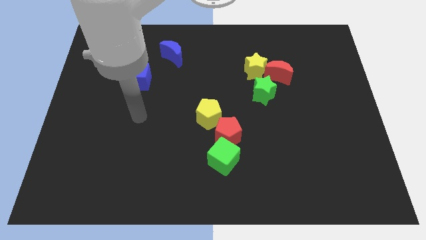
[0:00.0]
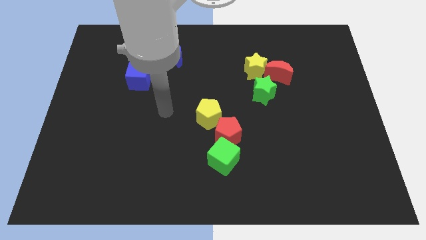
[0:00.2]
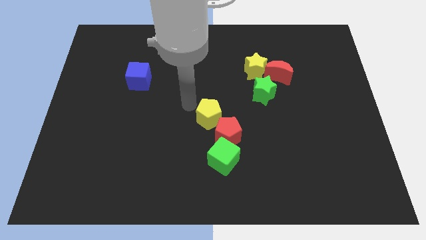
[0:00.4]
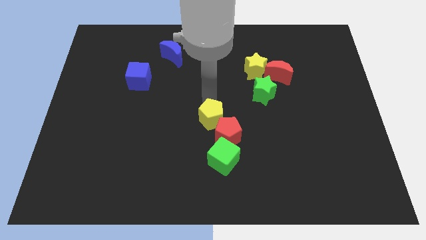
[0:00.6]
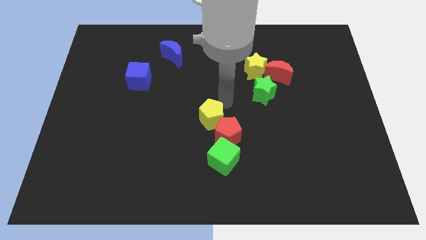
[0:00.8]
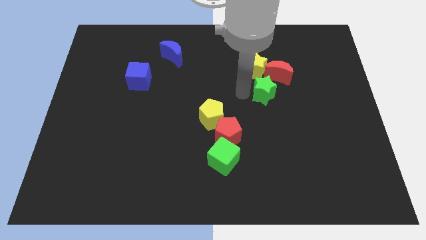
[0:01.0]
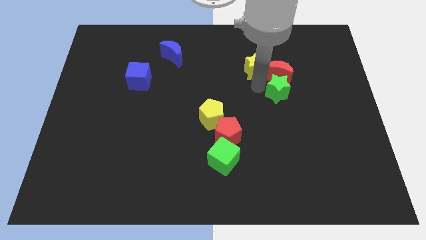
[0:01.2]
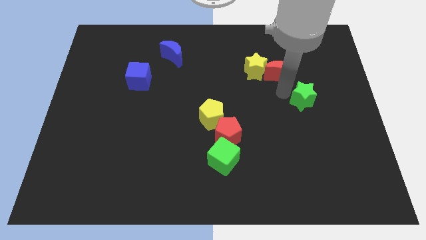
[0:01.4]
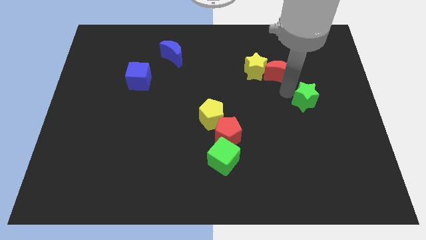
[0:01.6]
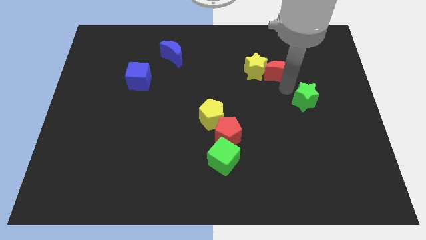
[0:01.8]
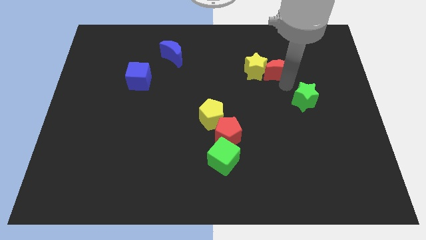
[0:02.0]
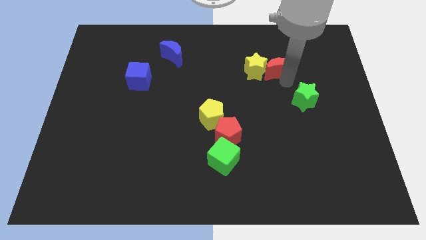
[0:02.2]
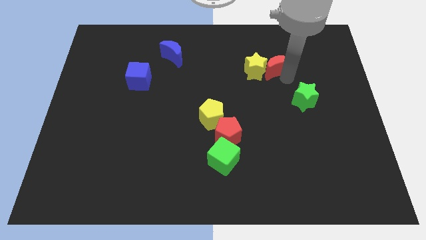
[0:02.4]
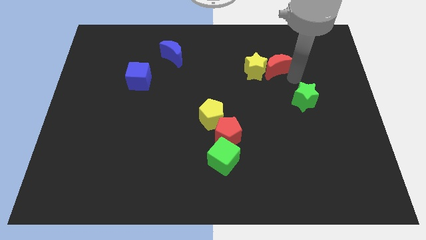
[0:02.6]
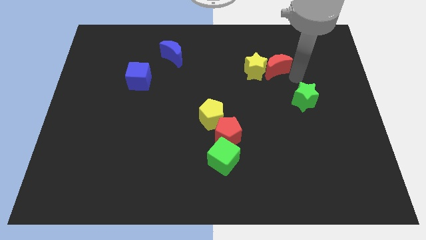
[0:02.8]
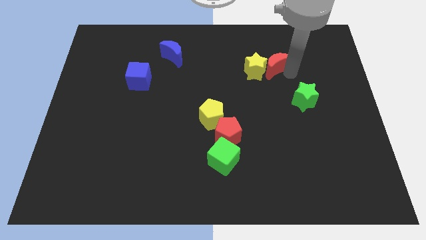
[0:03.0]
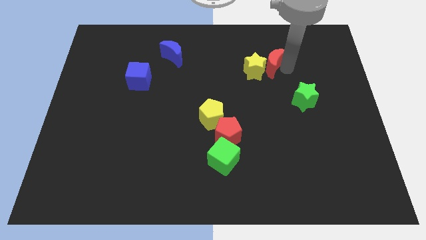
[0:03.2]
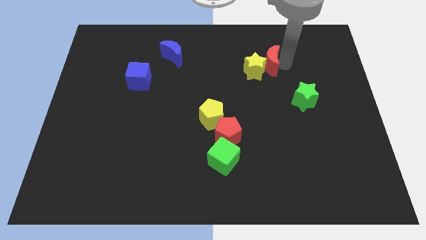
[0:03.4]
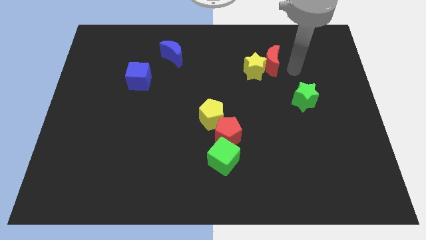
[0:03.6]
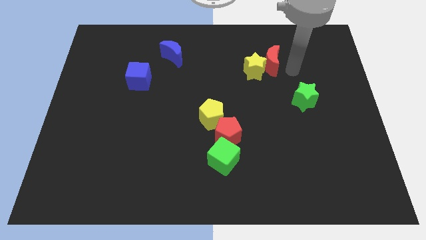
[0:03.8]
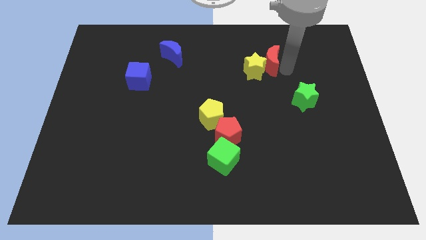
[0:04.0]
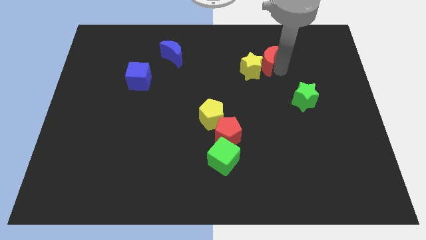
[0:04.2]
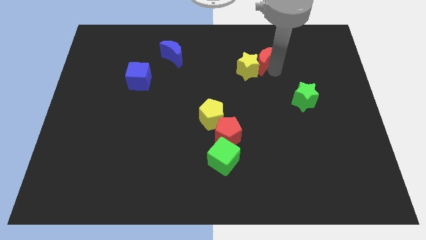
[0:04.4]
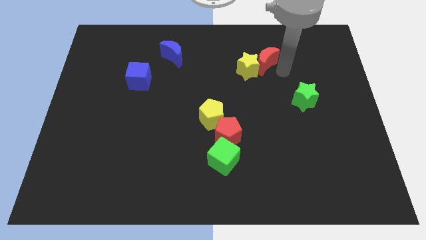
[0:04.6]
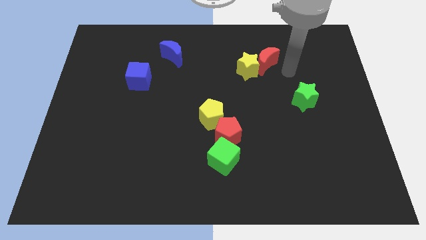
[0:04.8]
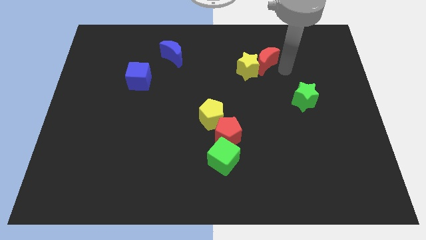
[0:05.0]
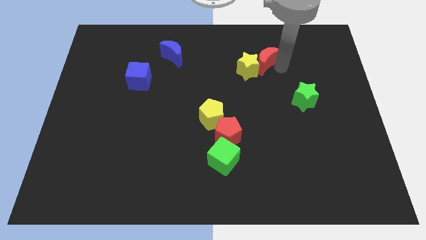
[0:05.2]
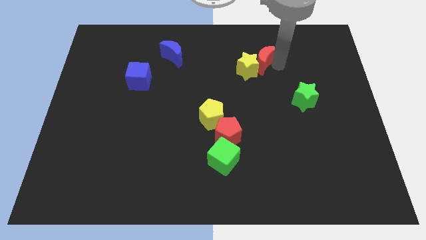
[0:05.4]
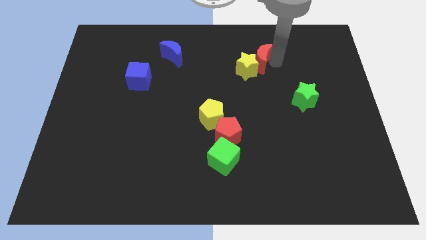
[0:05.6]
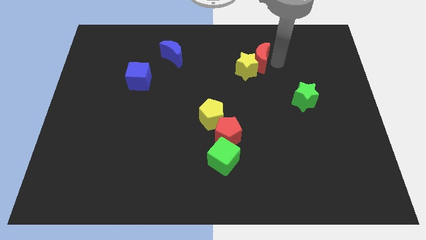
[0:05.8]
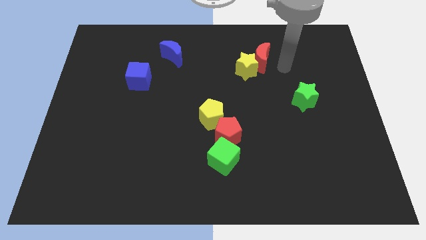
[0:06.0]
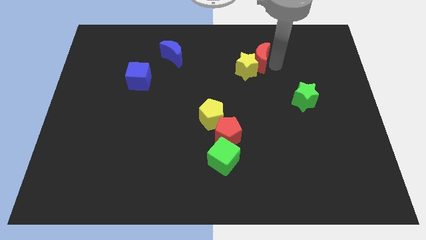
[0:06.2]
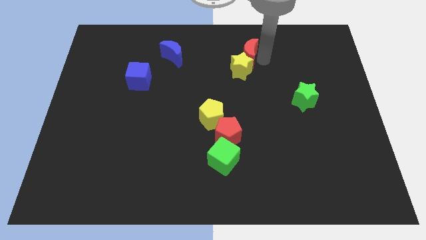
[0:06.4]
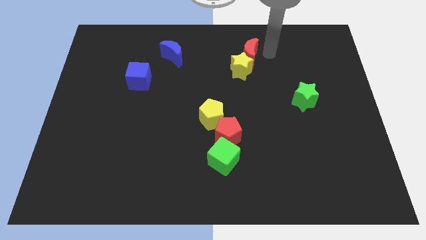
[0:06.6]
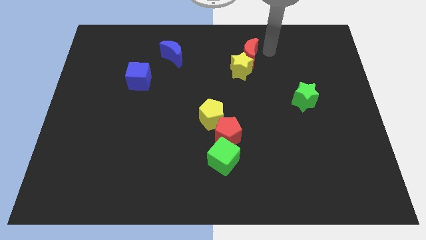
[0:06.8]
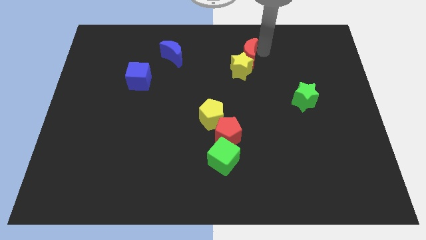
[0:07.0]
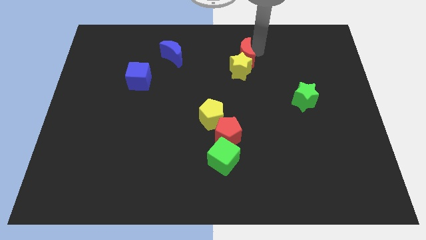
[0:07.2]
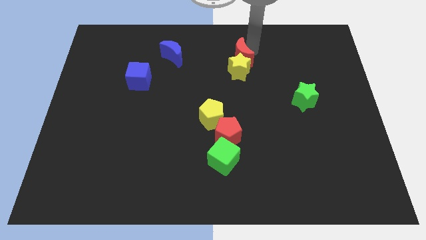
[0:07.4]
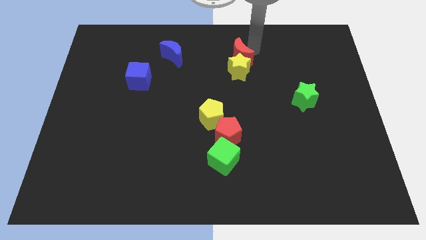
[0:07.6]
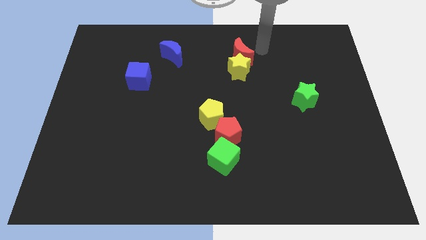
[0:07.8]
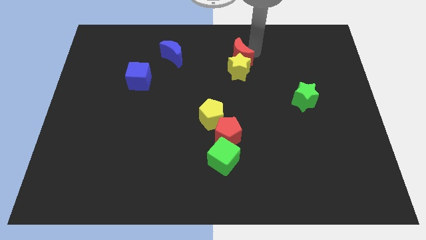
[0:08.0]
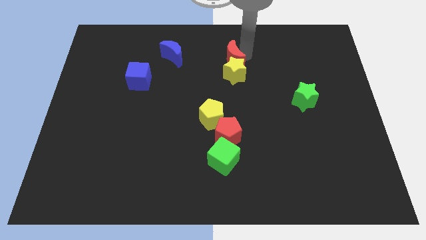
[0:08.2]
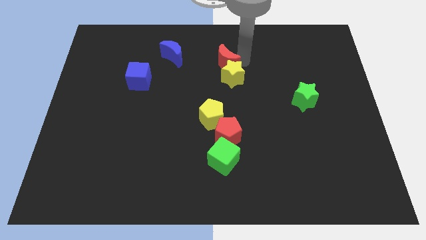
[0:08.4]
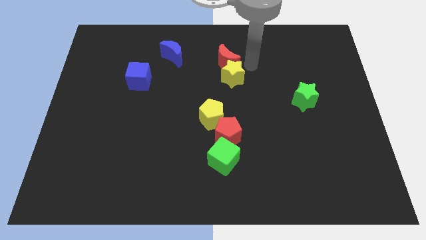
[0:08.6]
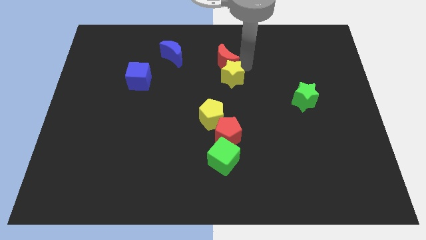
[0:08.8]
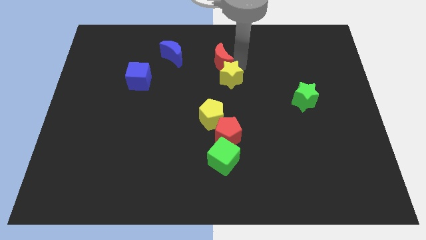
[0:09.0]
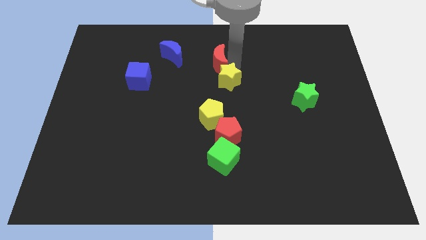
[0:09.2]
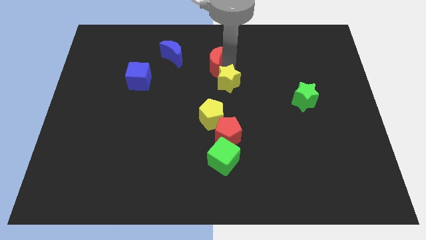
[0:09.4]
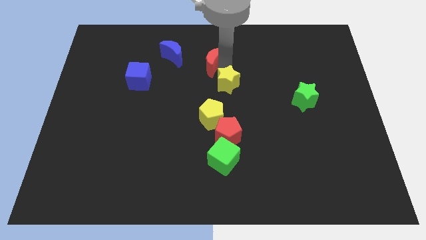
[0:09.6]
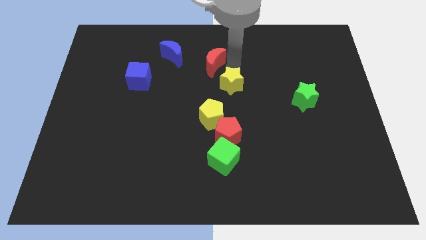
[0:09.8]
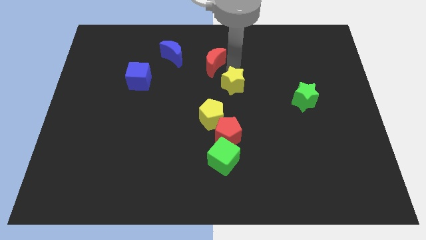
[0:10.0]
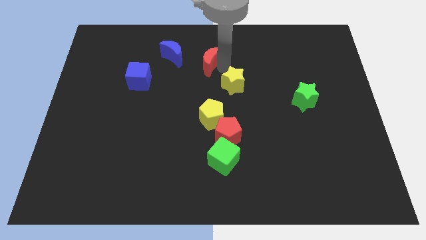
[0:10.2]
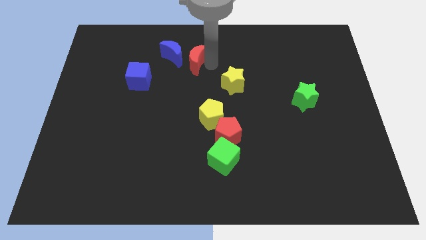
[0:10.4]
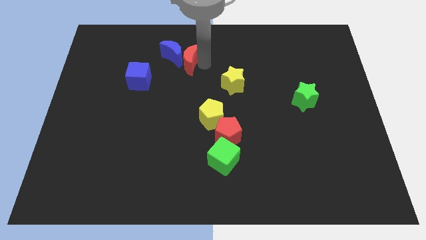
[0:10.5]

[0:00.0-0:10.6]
put the red moon close to the blue moon

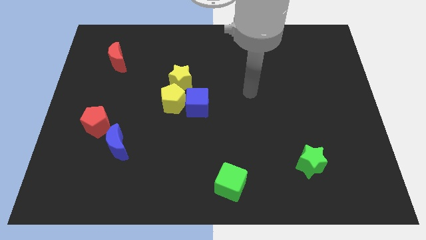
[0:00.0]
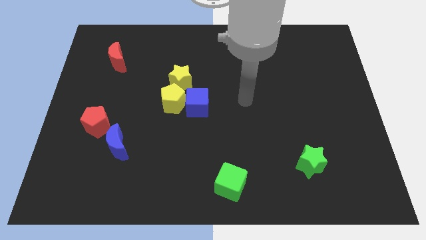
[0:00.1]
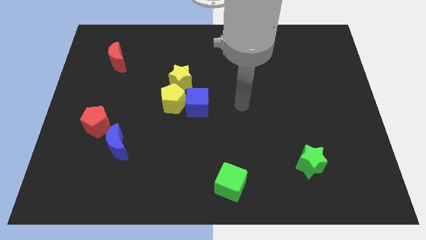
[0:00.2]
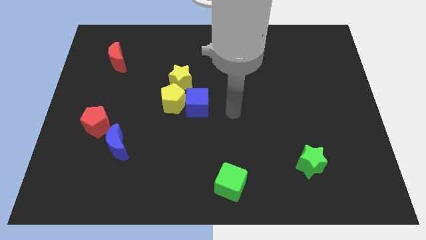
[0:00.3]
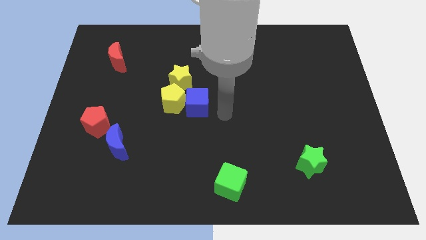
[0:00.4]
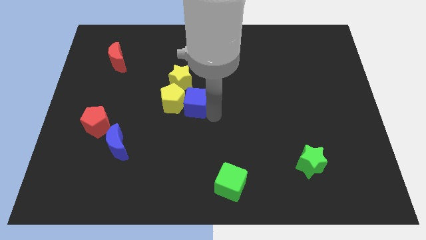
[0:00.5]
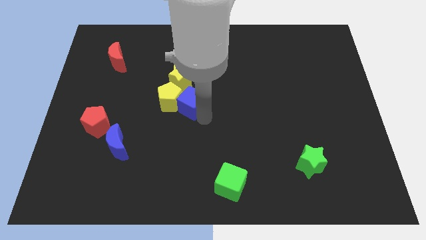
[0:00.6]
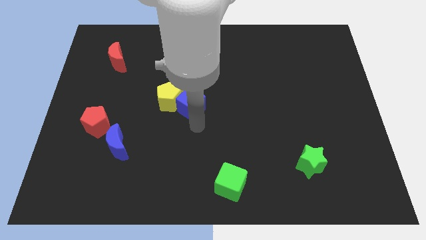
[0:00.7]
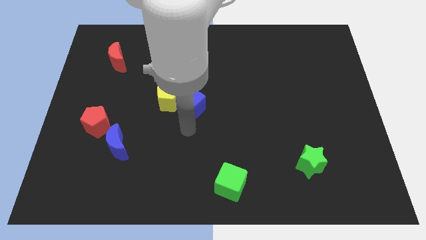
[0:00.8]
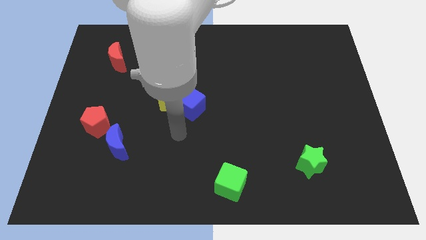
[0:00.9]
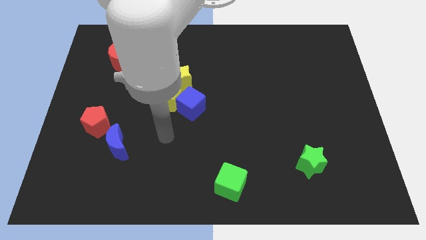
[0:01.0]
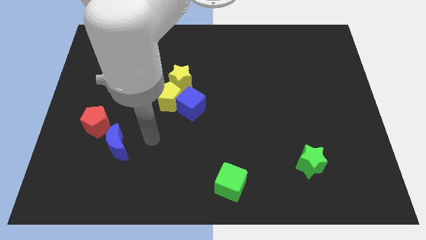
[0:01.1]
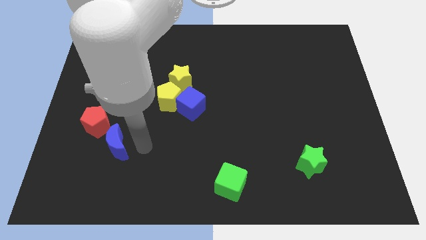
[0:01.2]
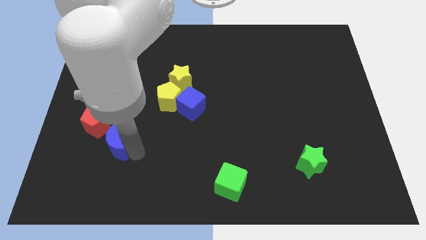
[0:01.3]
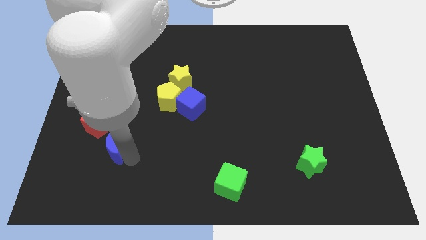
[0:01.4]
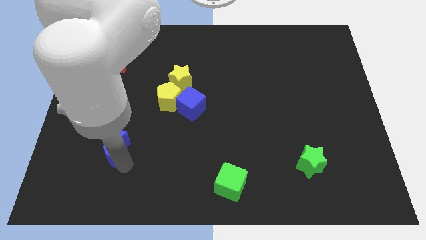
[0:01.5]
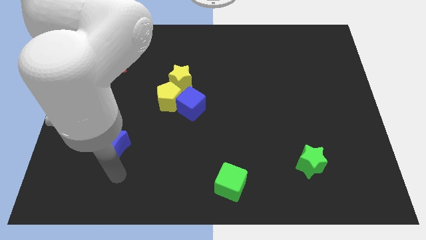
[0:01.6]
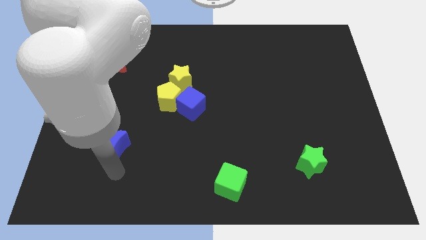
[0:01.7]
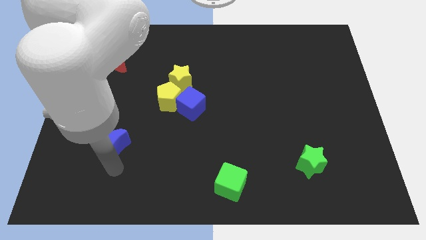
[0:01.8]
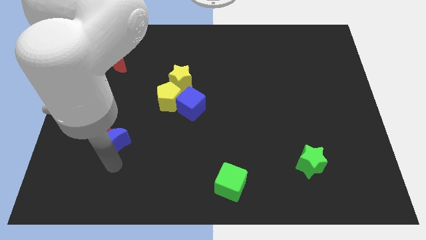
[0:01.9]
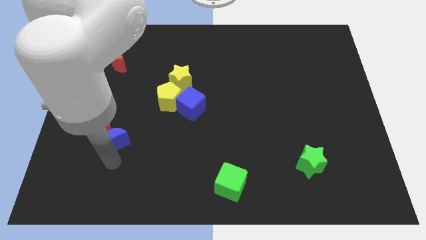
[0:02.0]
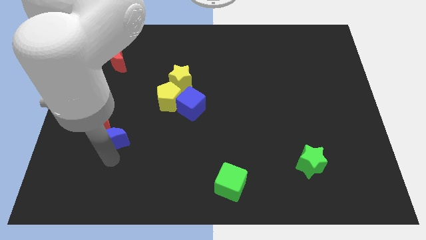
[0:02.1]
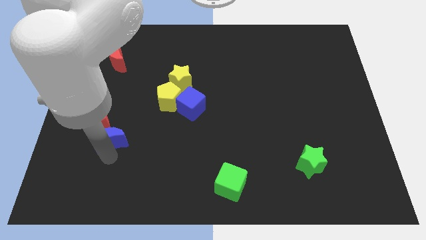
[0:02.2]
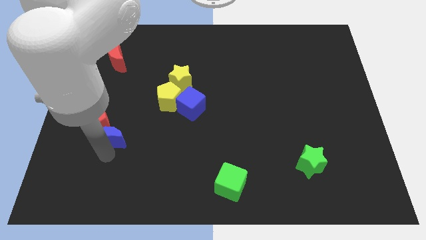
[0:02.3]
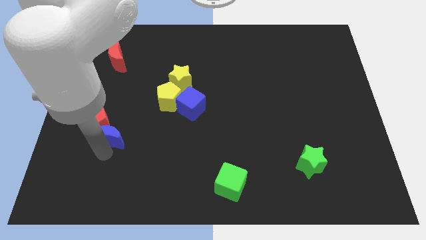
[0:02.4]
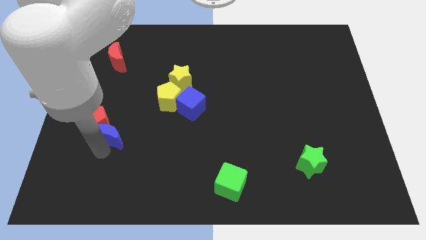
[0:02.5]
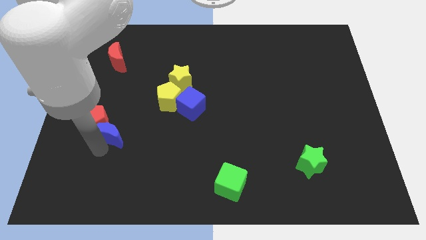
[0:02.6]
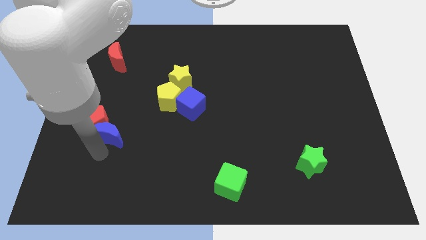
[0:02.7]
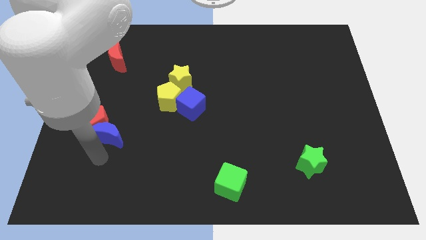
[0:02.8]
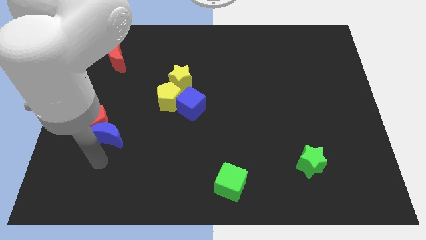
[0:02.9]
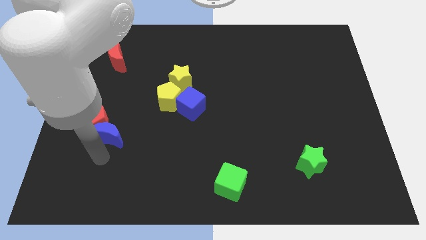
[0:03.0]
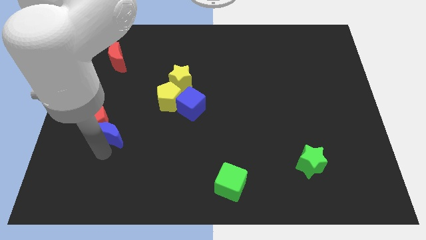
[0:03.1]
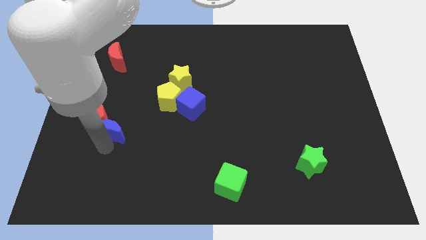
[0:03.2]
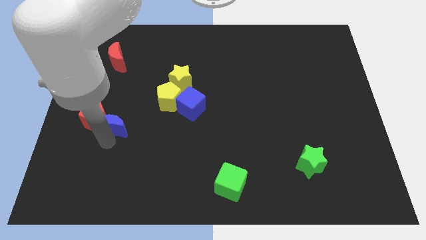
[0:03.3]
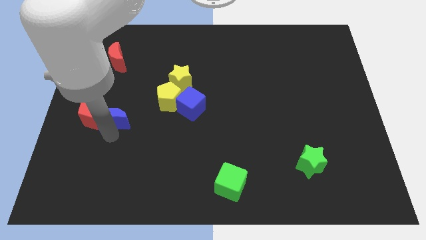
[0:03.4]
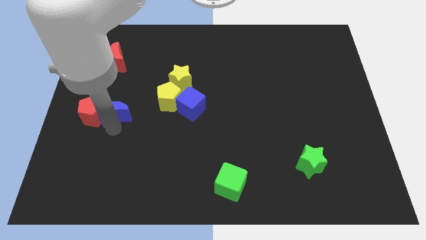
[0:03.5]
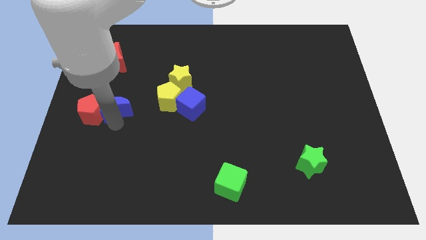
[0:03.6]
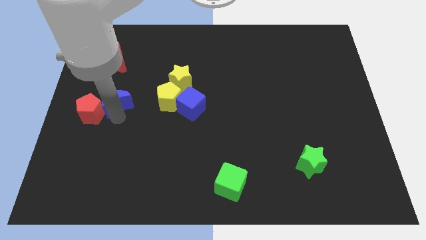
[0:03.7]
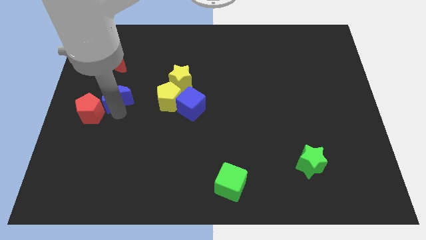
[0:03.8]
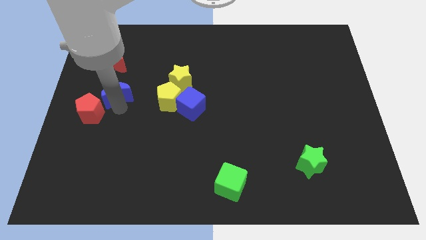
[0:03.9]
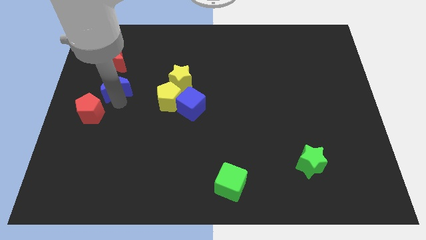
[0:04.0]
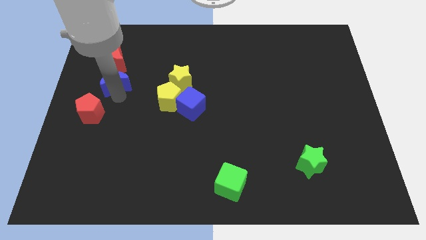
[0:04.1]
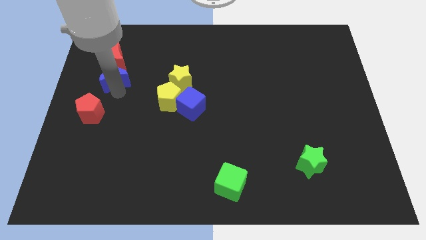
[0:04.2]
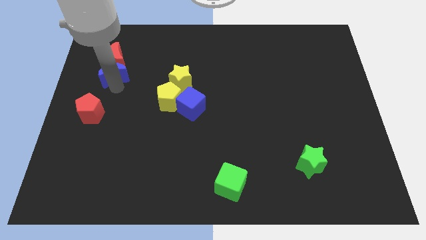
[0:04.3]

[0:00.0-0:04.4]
slide the blue moon towards the red moon
